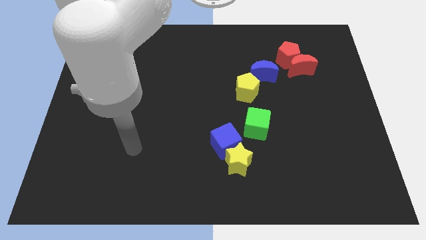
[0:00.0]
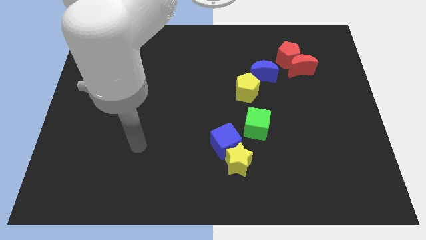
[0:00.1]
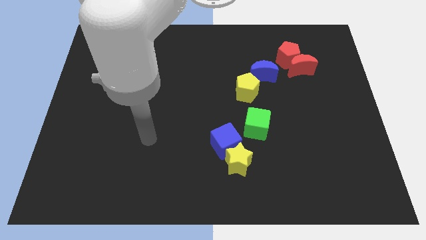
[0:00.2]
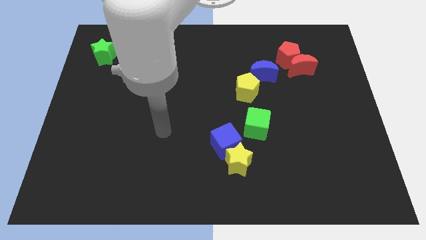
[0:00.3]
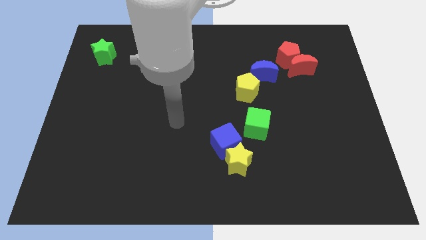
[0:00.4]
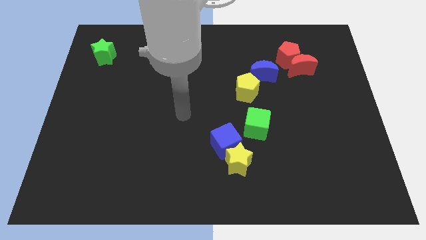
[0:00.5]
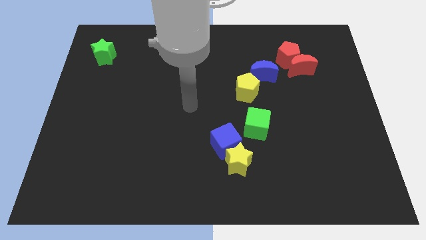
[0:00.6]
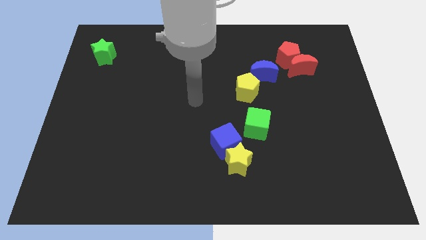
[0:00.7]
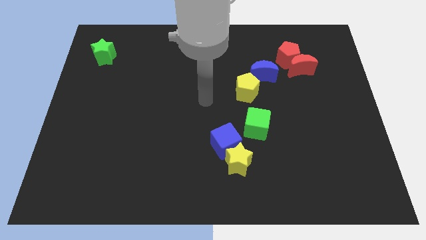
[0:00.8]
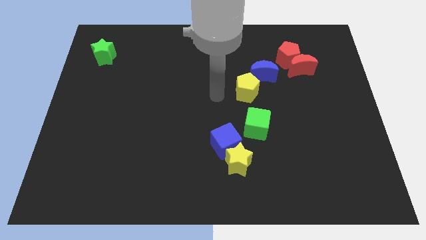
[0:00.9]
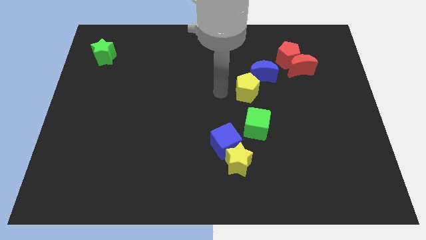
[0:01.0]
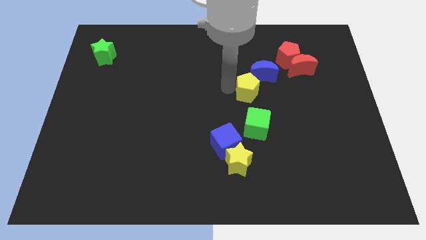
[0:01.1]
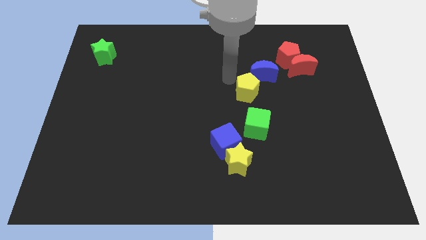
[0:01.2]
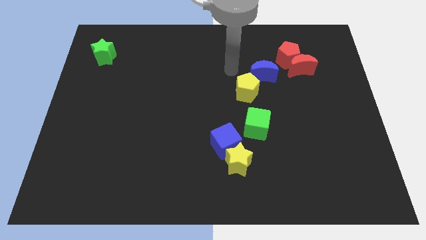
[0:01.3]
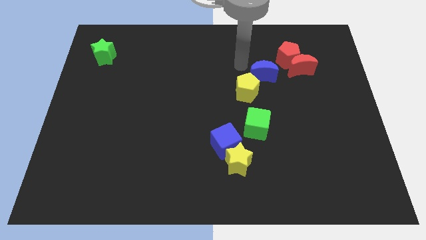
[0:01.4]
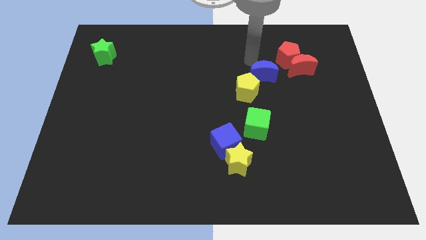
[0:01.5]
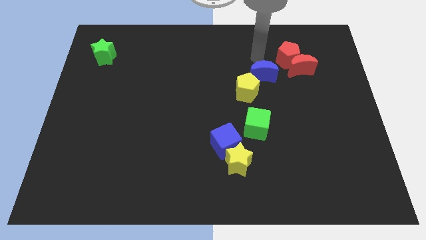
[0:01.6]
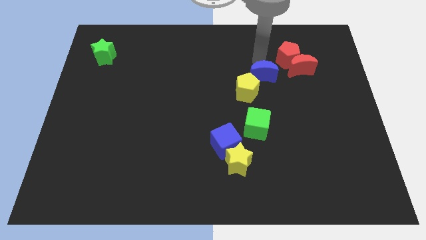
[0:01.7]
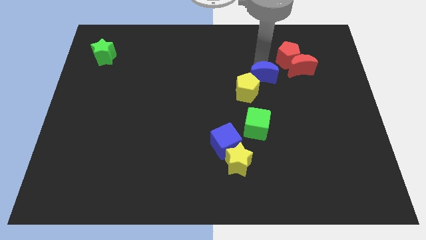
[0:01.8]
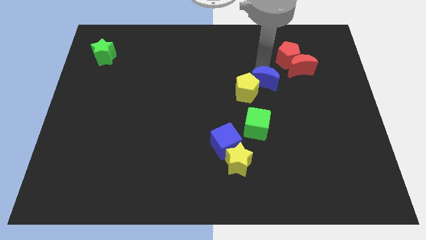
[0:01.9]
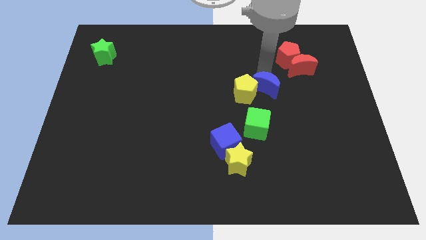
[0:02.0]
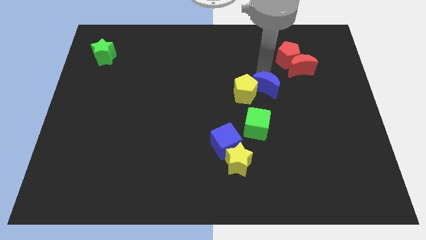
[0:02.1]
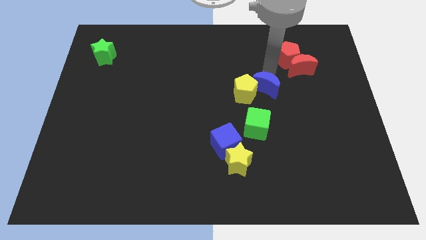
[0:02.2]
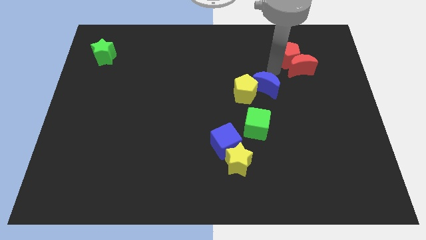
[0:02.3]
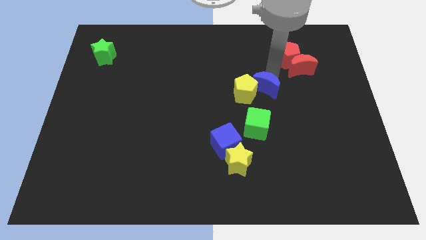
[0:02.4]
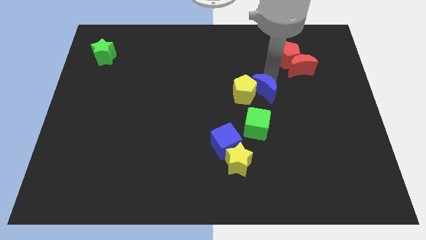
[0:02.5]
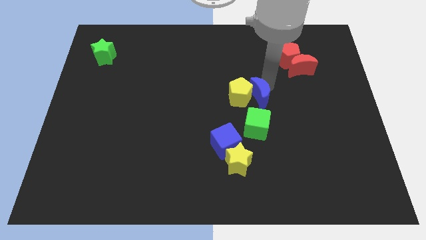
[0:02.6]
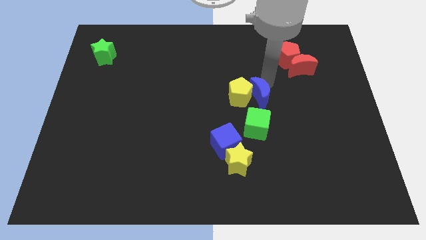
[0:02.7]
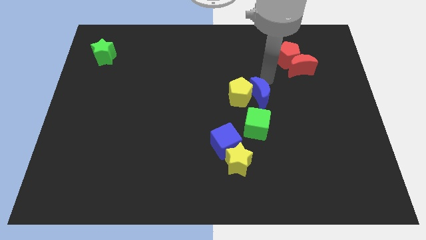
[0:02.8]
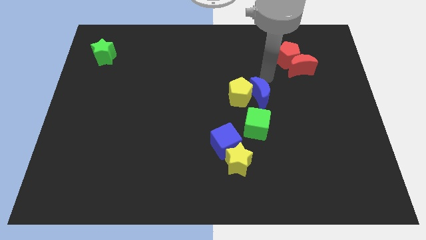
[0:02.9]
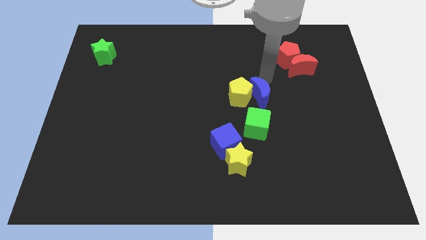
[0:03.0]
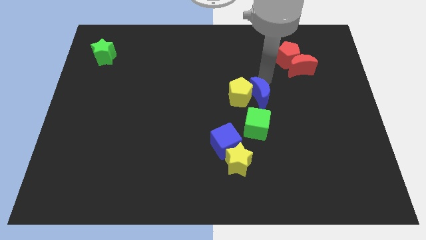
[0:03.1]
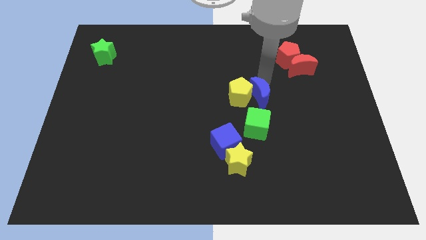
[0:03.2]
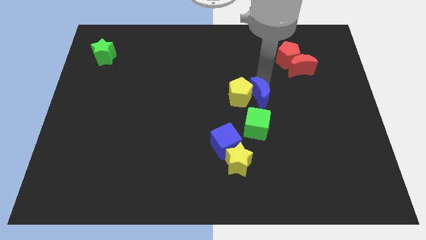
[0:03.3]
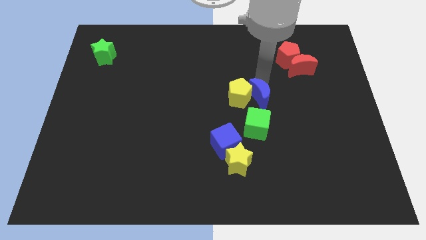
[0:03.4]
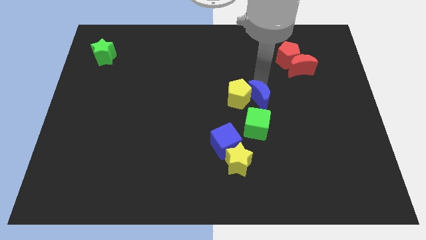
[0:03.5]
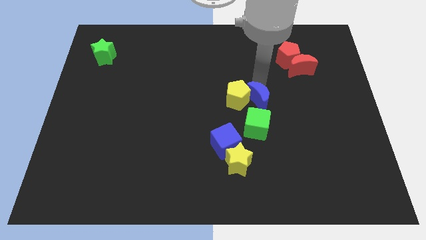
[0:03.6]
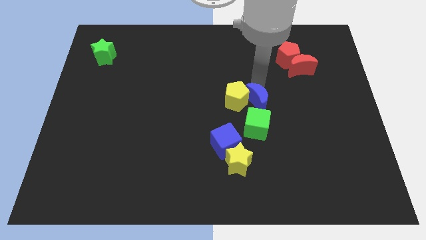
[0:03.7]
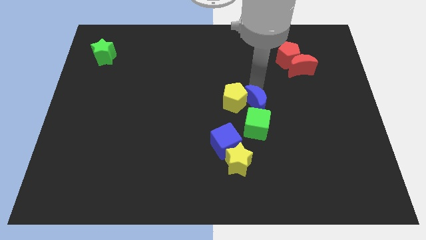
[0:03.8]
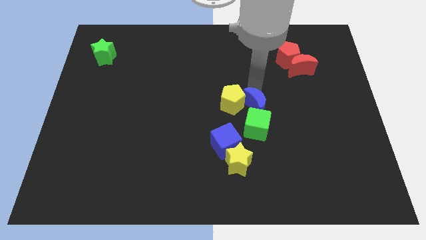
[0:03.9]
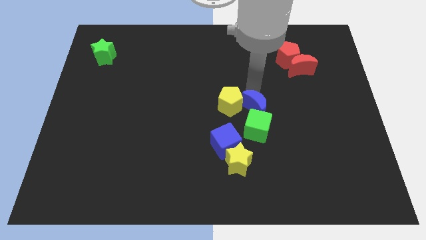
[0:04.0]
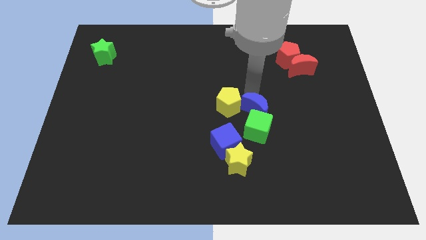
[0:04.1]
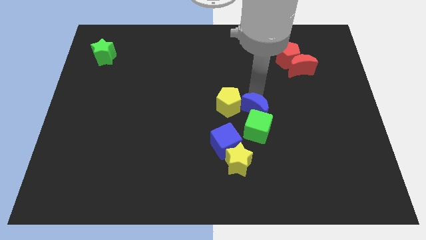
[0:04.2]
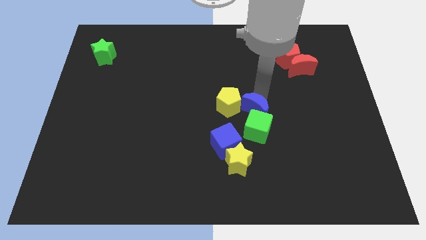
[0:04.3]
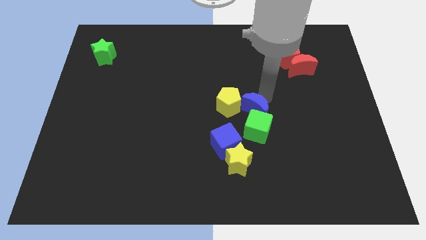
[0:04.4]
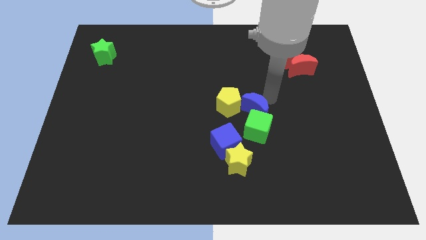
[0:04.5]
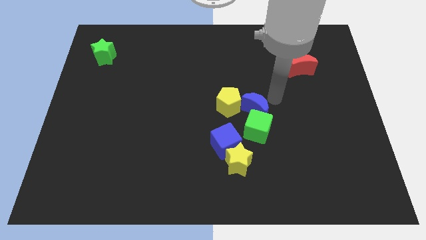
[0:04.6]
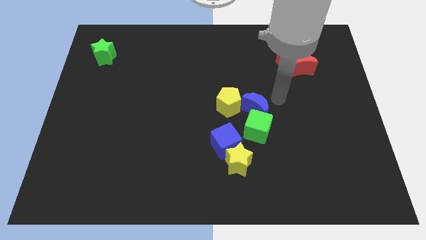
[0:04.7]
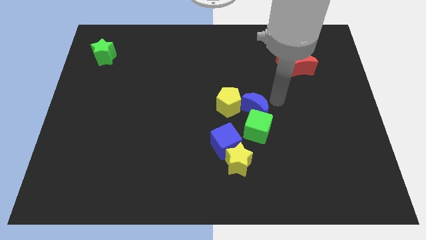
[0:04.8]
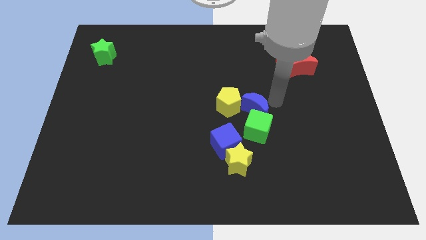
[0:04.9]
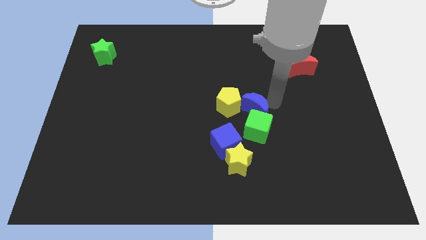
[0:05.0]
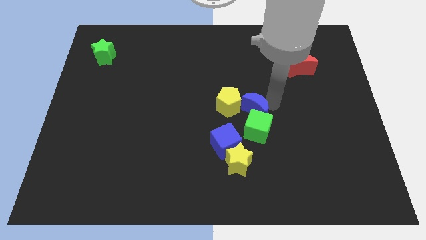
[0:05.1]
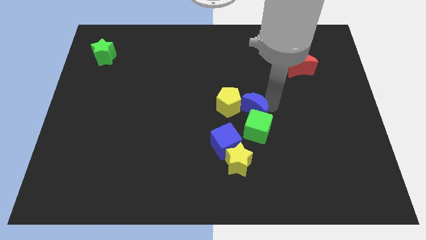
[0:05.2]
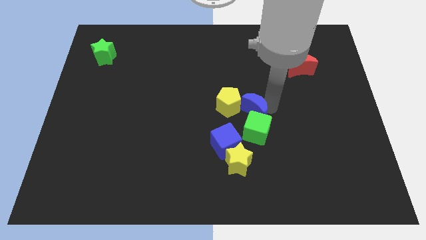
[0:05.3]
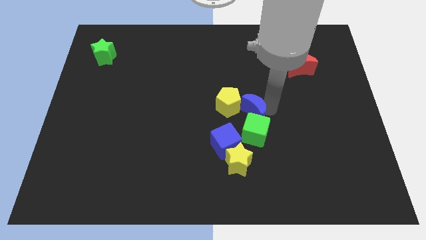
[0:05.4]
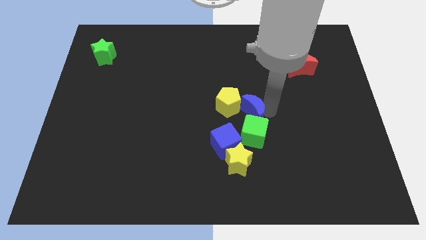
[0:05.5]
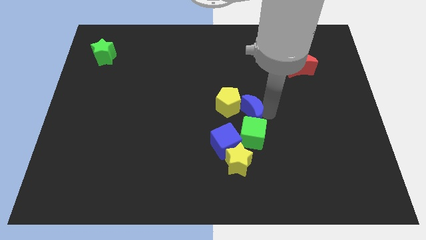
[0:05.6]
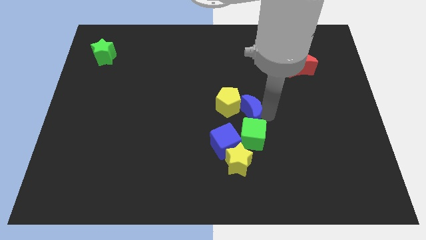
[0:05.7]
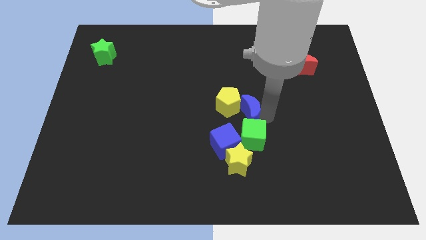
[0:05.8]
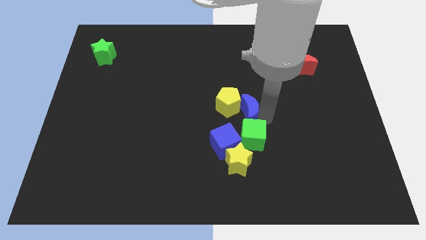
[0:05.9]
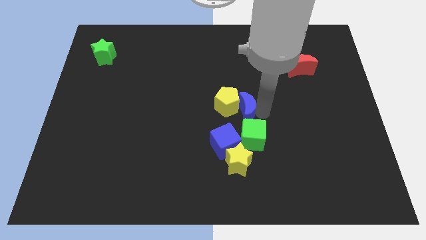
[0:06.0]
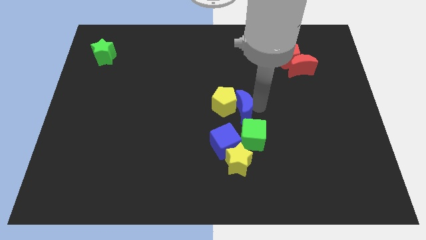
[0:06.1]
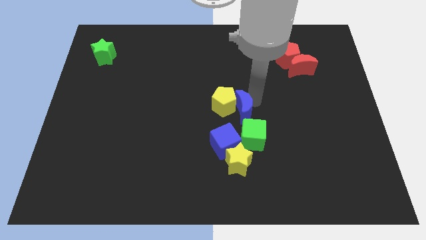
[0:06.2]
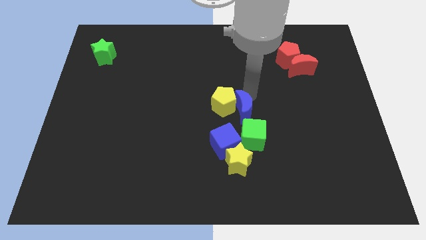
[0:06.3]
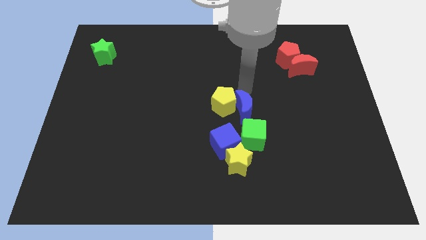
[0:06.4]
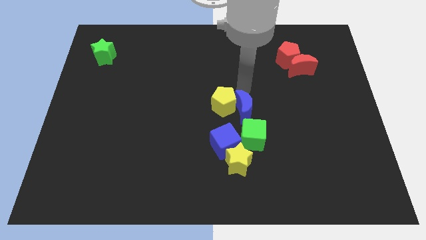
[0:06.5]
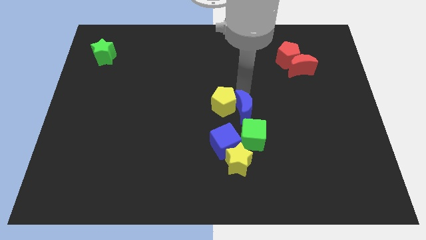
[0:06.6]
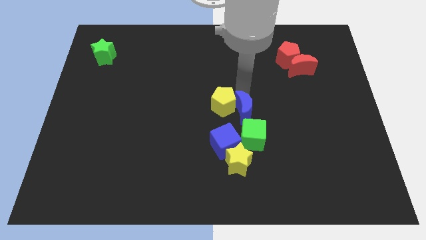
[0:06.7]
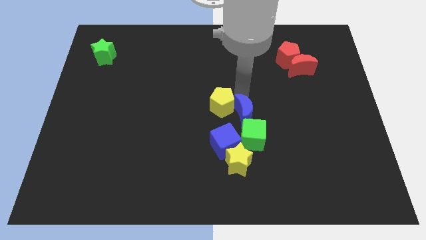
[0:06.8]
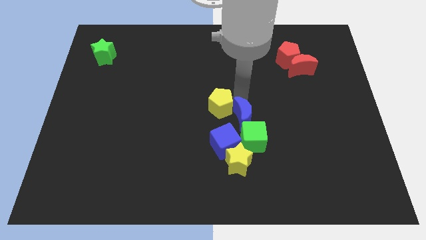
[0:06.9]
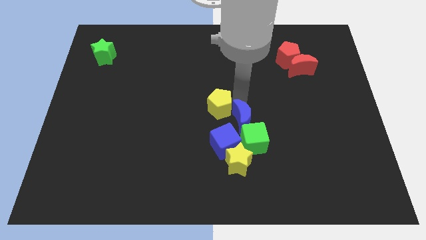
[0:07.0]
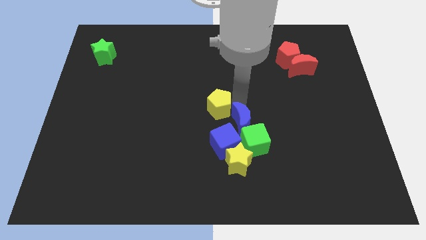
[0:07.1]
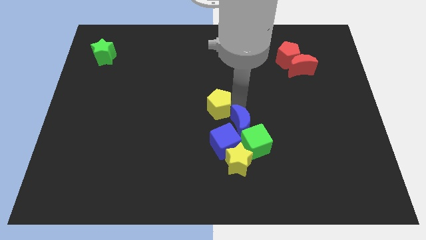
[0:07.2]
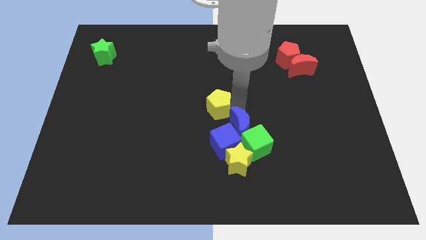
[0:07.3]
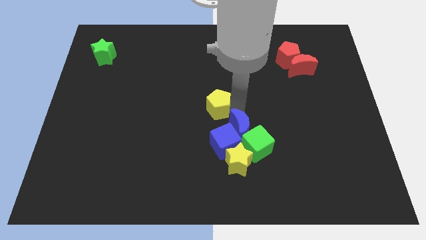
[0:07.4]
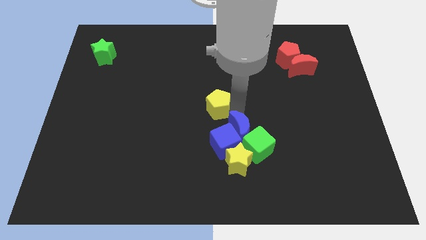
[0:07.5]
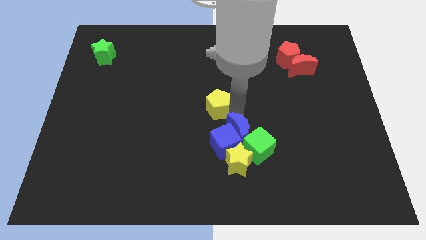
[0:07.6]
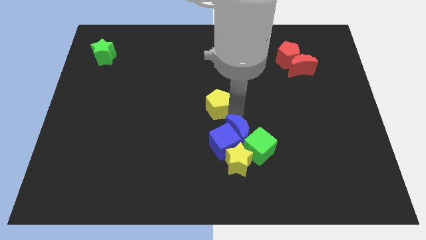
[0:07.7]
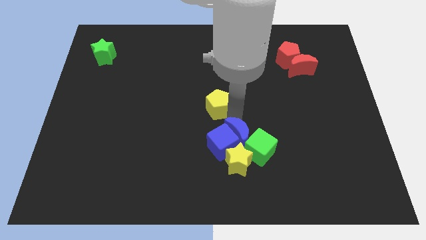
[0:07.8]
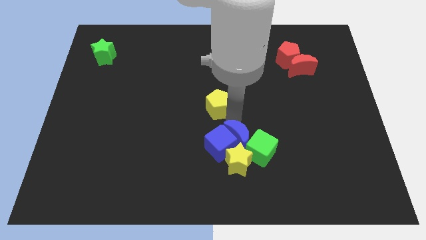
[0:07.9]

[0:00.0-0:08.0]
slide the blue moon close to the yellow star
